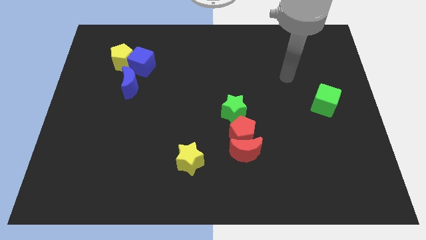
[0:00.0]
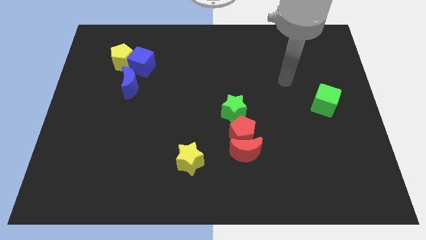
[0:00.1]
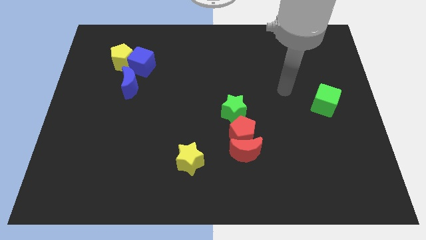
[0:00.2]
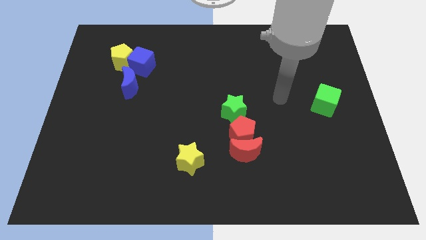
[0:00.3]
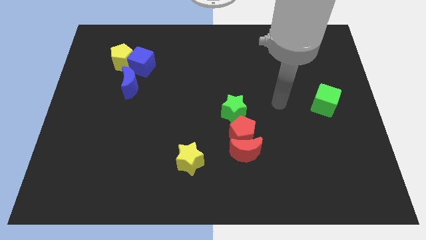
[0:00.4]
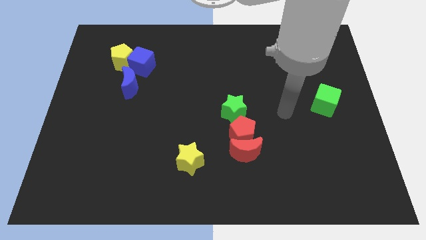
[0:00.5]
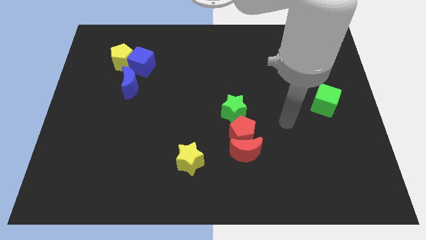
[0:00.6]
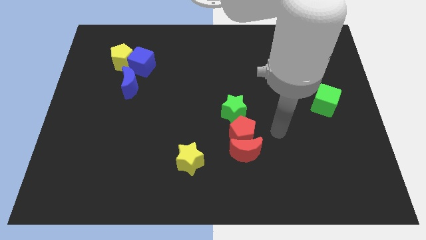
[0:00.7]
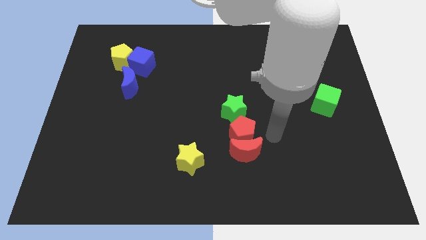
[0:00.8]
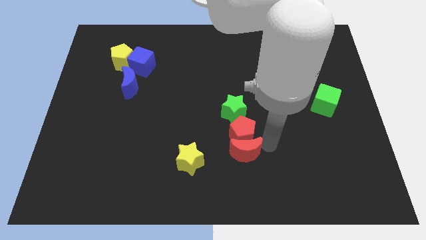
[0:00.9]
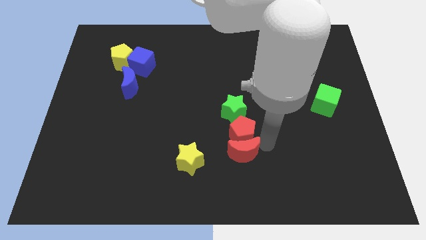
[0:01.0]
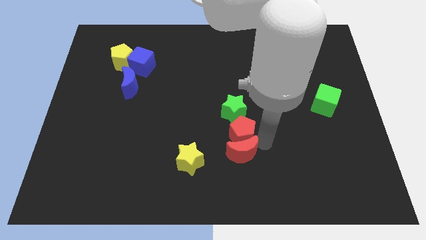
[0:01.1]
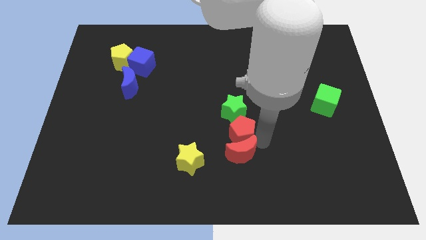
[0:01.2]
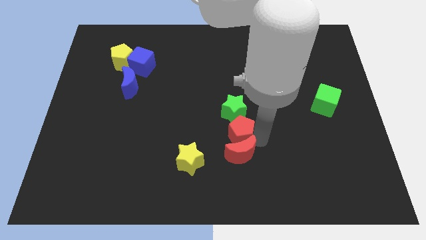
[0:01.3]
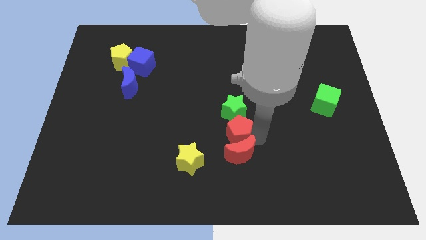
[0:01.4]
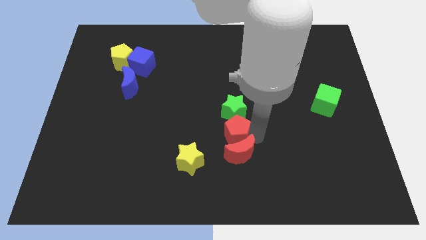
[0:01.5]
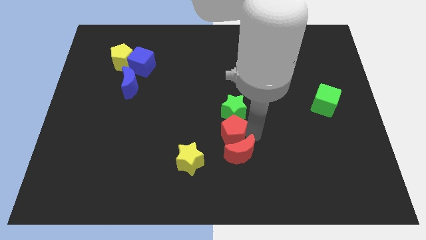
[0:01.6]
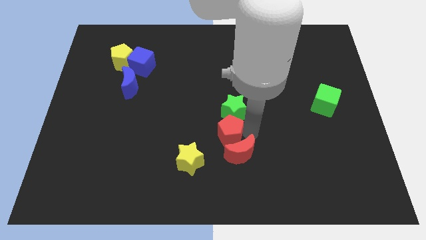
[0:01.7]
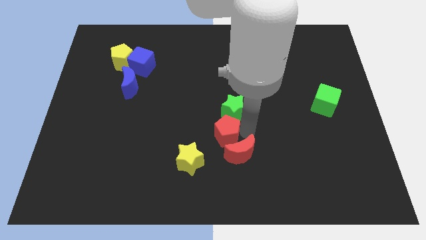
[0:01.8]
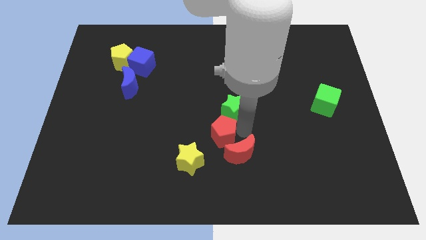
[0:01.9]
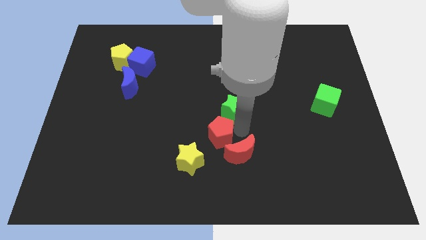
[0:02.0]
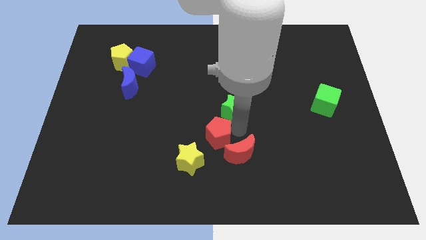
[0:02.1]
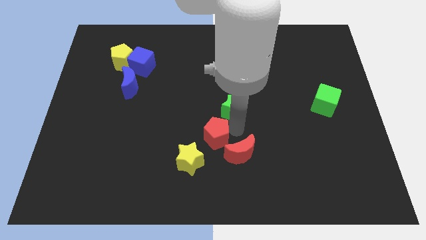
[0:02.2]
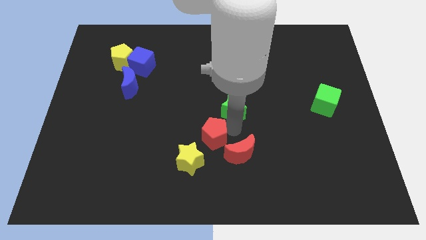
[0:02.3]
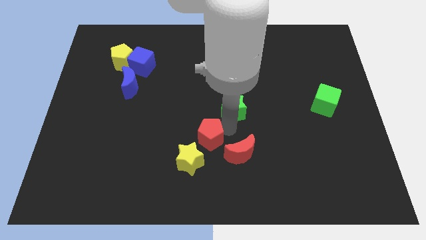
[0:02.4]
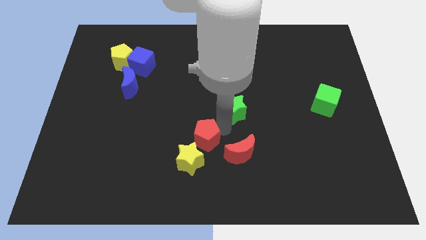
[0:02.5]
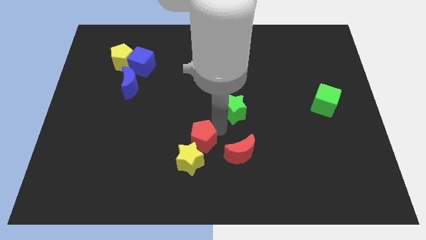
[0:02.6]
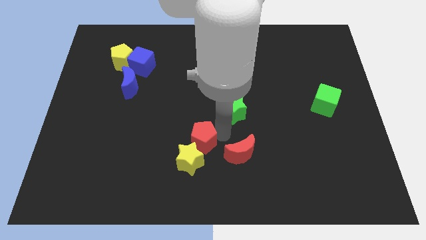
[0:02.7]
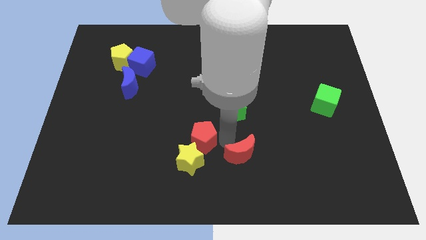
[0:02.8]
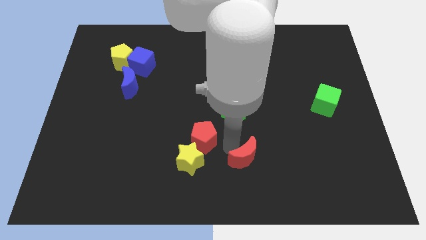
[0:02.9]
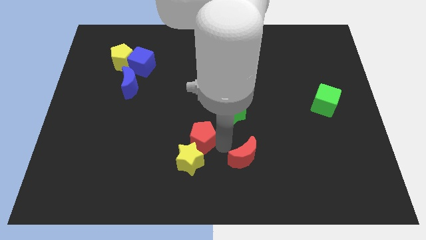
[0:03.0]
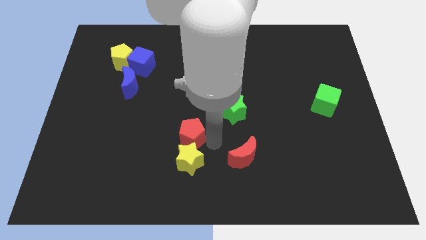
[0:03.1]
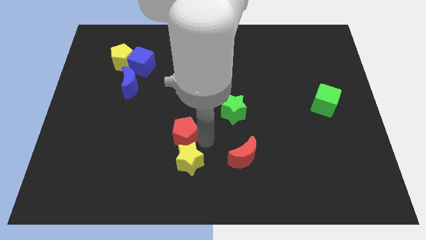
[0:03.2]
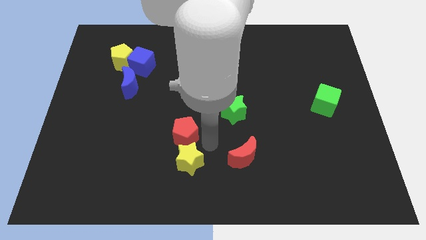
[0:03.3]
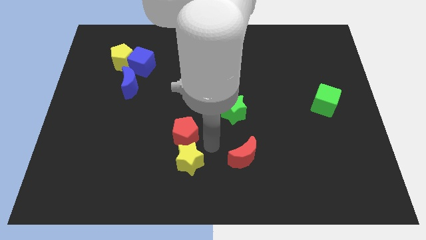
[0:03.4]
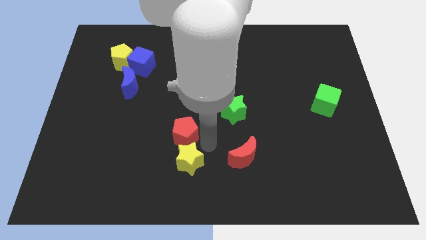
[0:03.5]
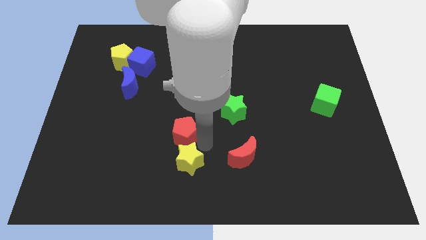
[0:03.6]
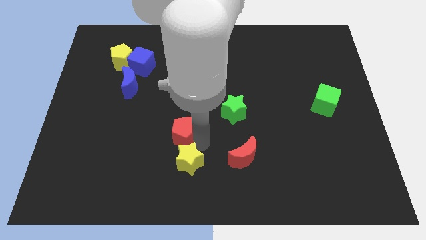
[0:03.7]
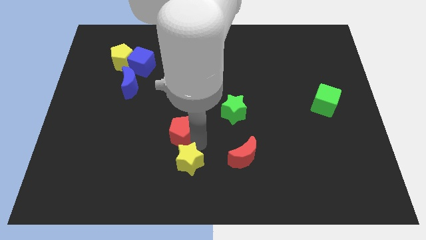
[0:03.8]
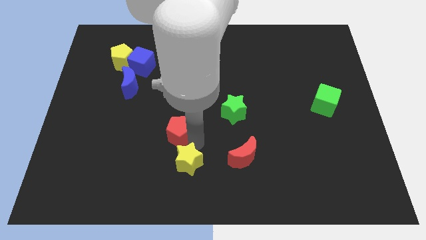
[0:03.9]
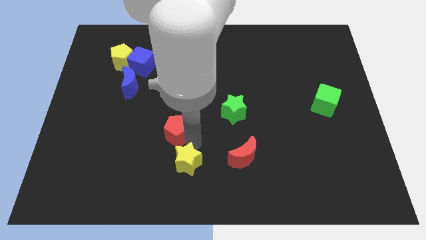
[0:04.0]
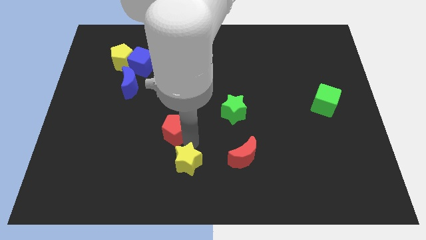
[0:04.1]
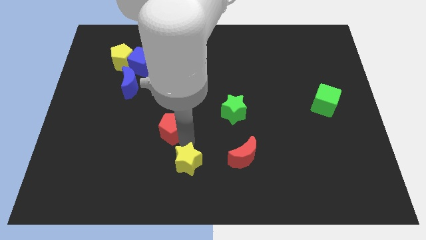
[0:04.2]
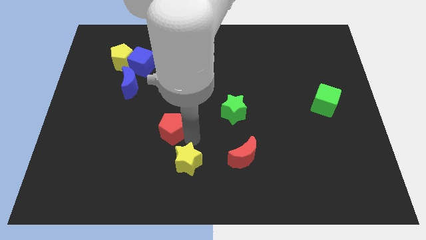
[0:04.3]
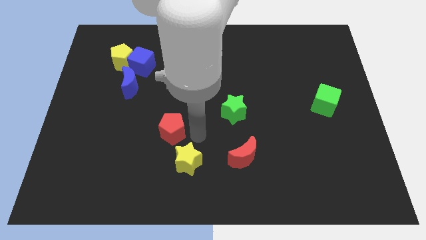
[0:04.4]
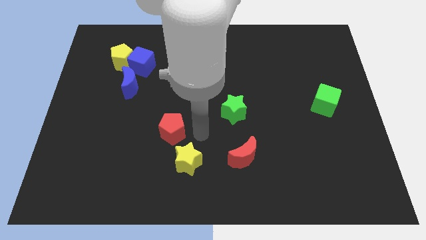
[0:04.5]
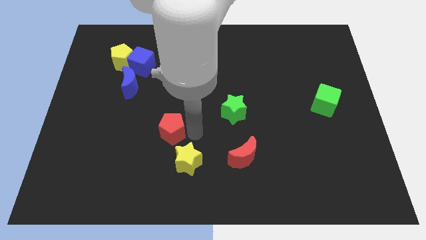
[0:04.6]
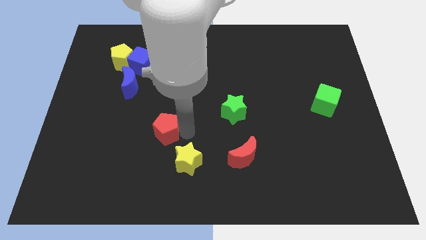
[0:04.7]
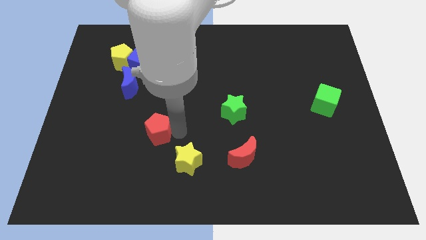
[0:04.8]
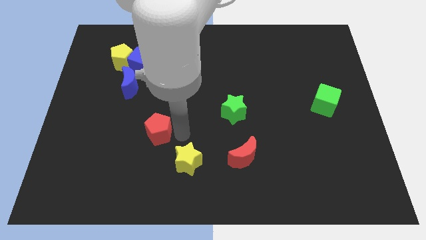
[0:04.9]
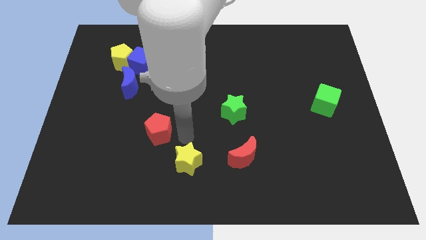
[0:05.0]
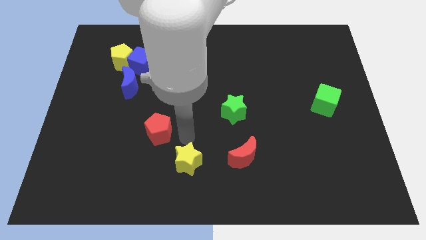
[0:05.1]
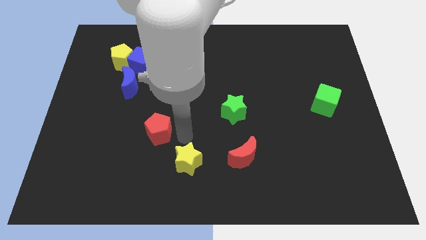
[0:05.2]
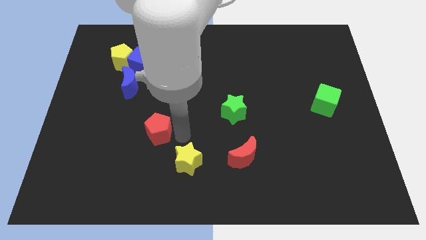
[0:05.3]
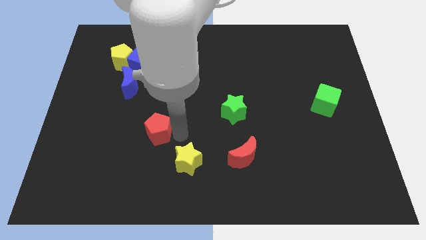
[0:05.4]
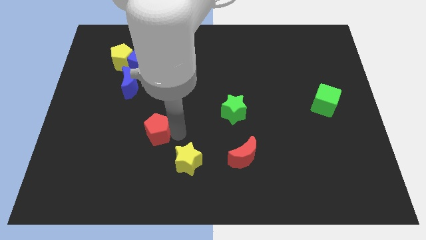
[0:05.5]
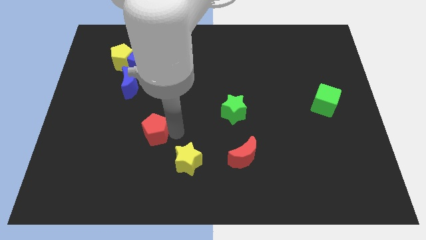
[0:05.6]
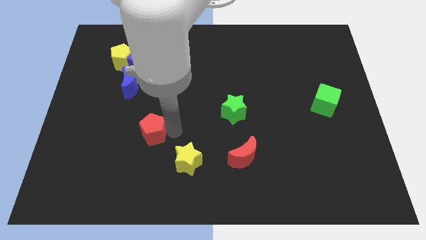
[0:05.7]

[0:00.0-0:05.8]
move the red pentagon left

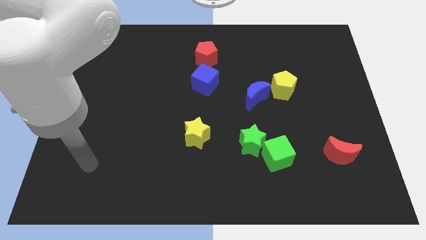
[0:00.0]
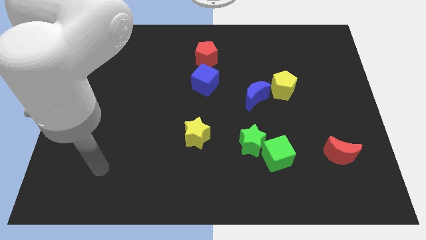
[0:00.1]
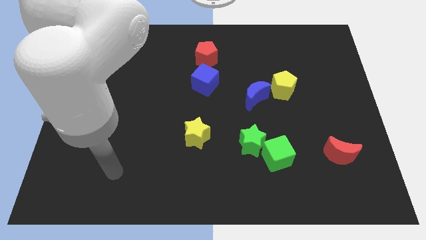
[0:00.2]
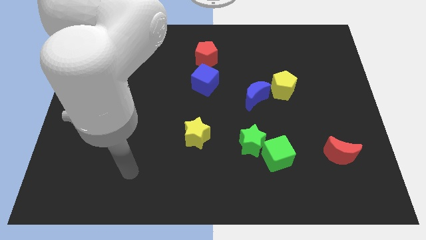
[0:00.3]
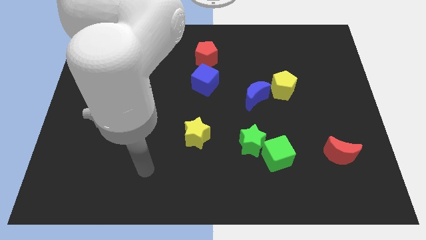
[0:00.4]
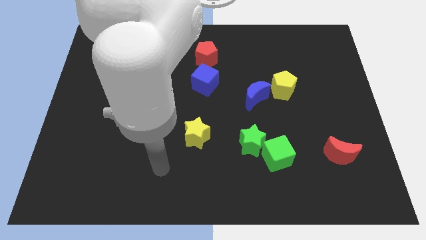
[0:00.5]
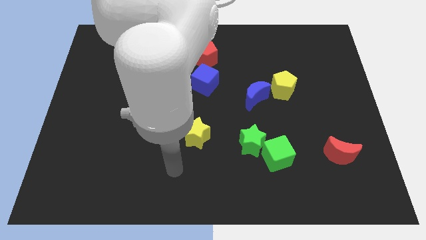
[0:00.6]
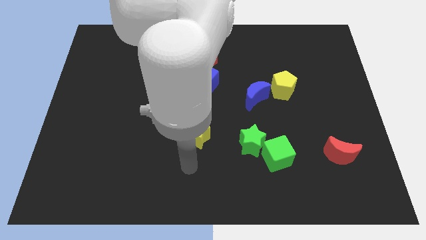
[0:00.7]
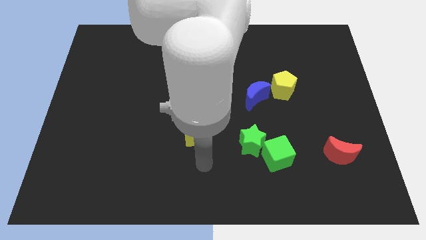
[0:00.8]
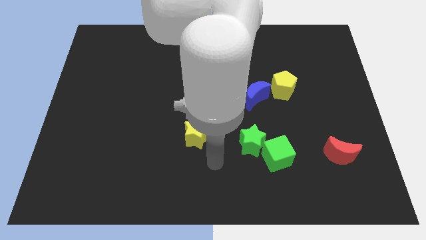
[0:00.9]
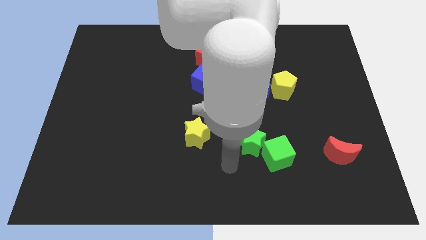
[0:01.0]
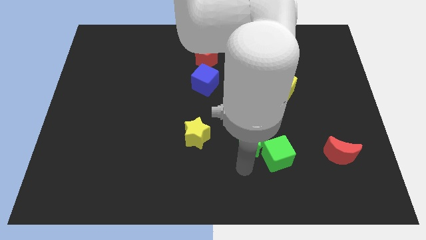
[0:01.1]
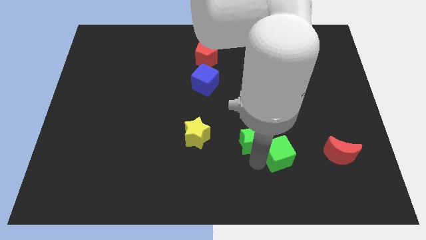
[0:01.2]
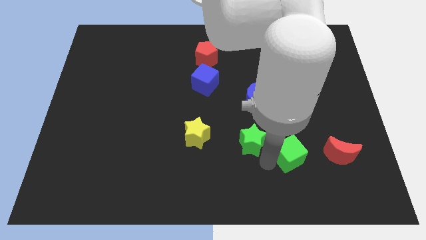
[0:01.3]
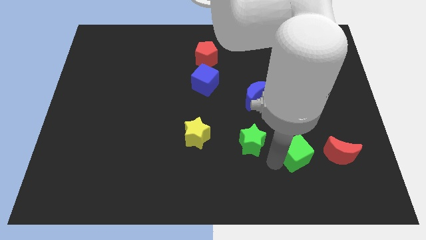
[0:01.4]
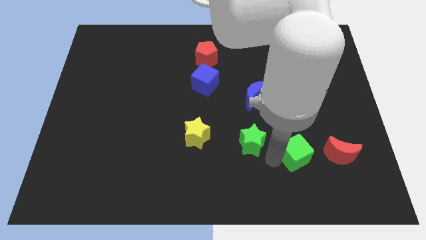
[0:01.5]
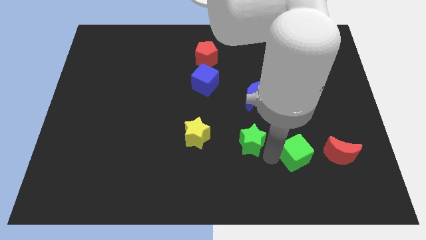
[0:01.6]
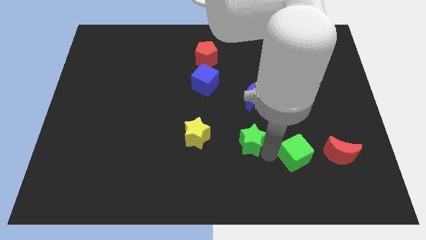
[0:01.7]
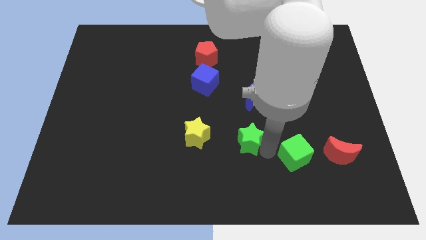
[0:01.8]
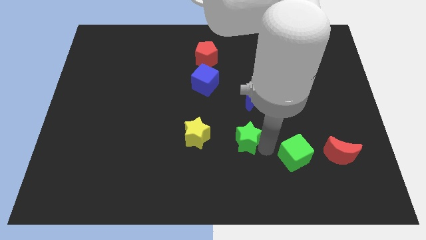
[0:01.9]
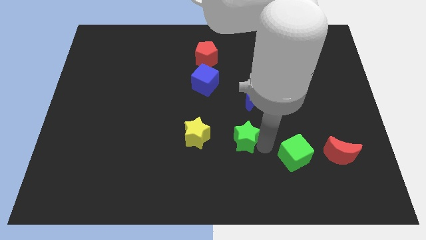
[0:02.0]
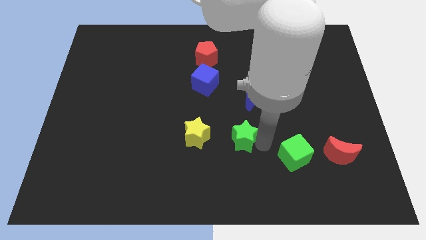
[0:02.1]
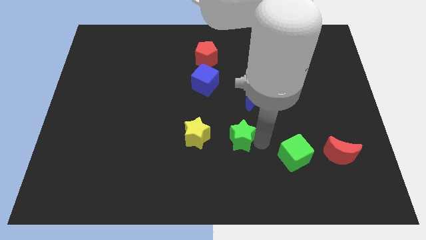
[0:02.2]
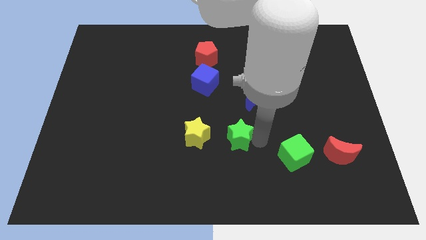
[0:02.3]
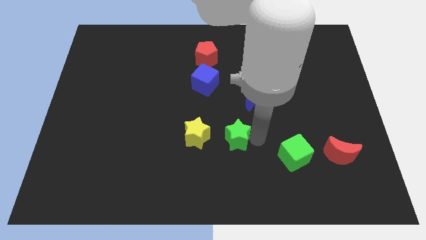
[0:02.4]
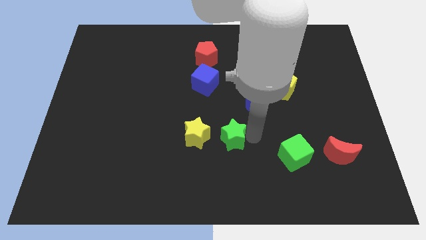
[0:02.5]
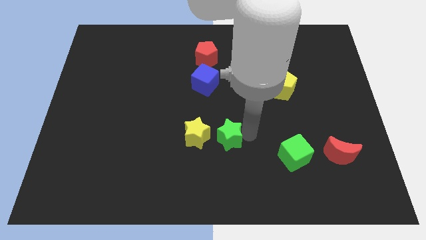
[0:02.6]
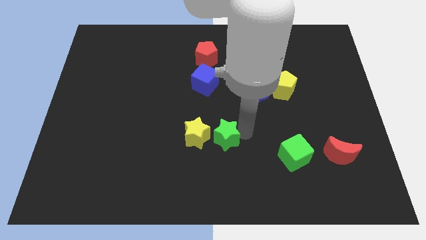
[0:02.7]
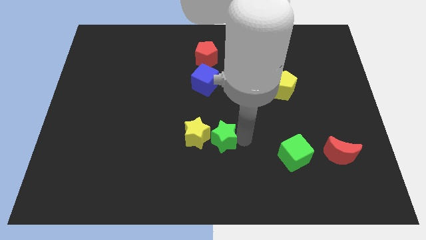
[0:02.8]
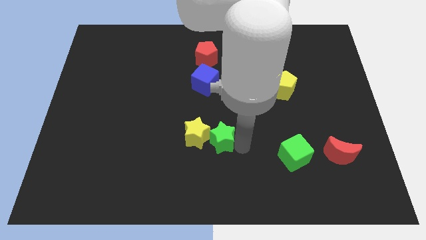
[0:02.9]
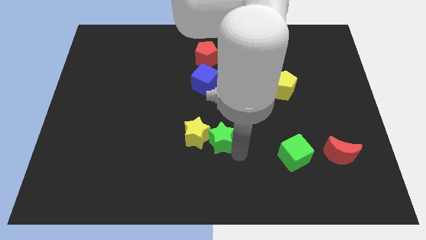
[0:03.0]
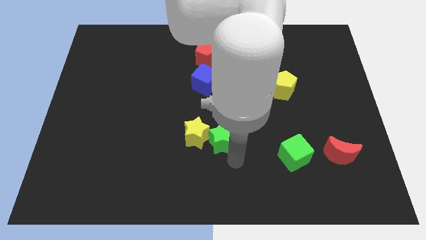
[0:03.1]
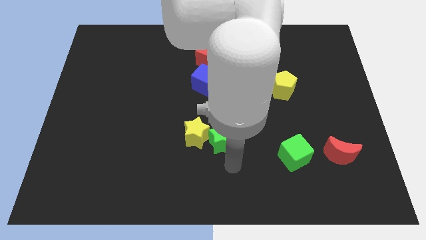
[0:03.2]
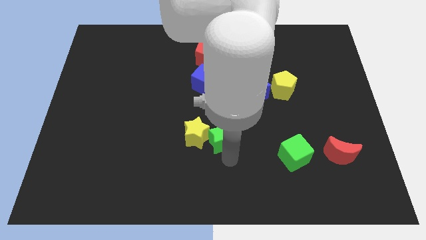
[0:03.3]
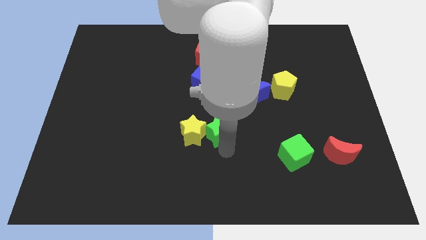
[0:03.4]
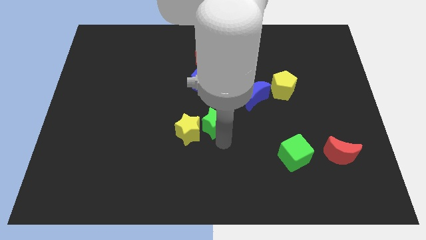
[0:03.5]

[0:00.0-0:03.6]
slightly push the green star up and to the left
